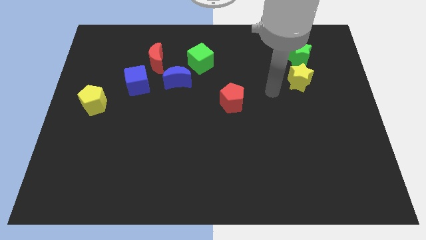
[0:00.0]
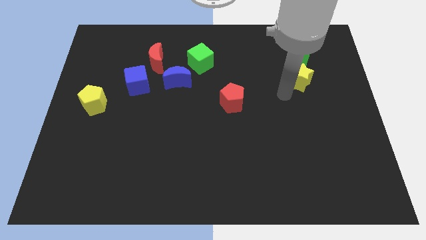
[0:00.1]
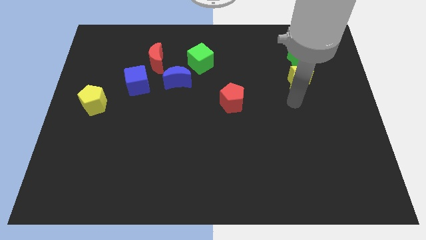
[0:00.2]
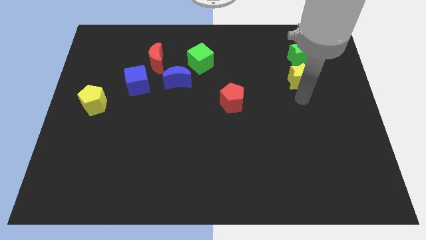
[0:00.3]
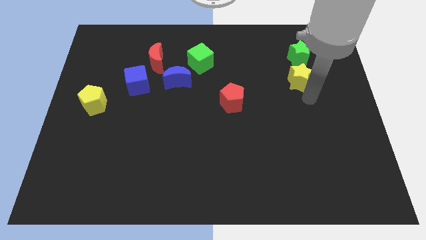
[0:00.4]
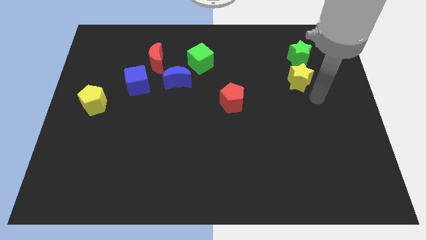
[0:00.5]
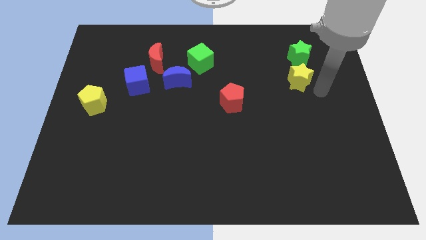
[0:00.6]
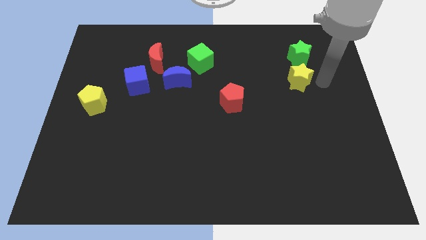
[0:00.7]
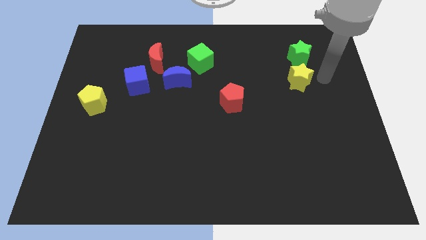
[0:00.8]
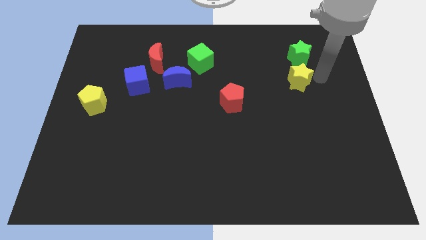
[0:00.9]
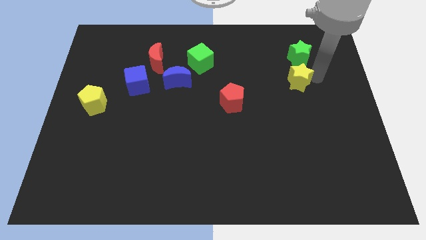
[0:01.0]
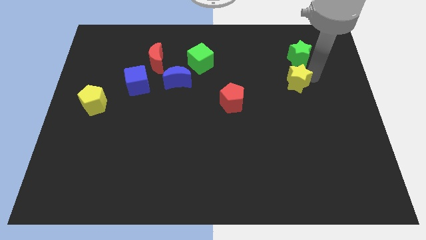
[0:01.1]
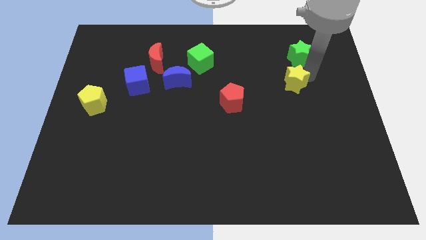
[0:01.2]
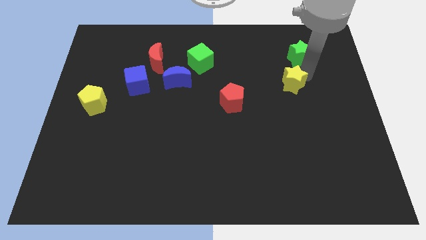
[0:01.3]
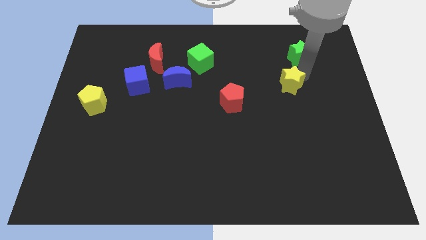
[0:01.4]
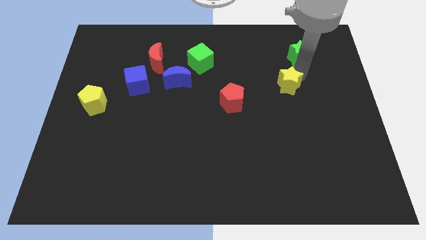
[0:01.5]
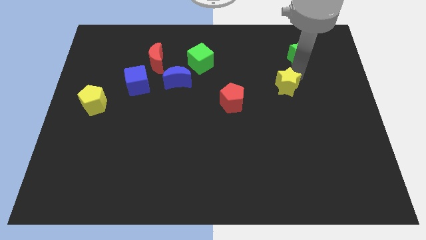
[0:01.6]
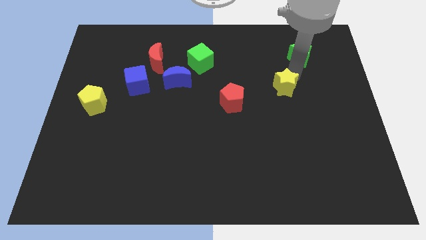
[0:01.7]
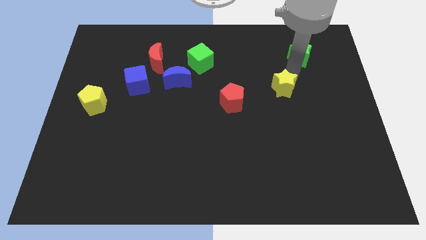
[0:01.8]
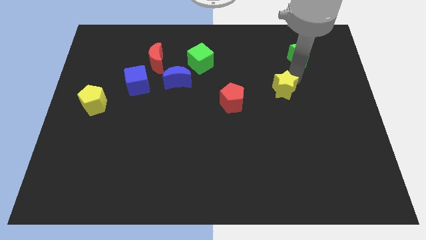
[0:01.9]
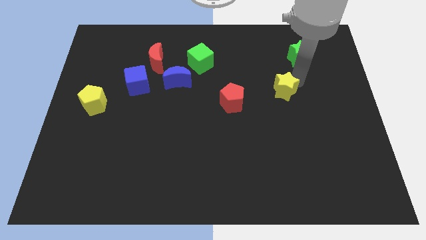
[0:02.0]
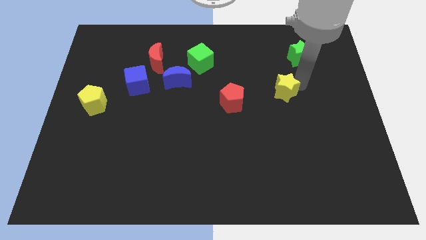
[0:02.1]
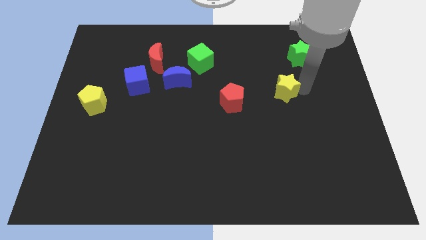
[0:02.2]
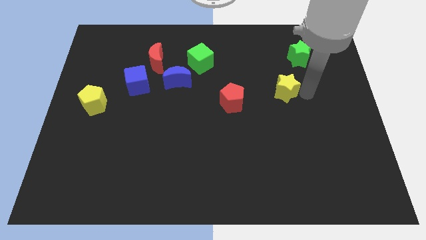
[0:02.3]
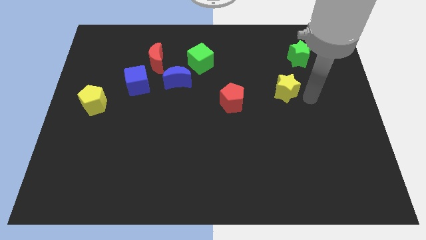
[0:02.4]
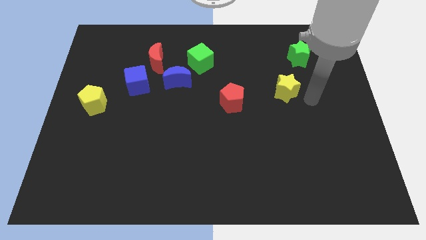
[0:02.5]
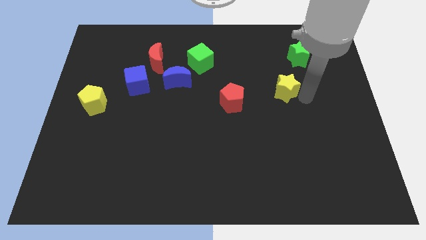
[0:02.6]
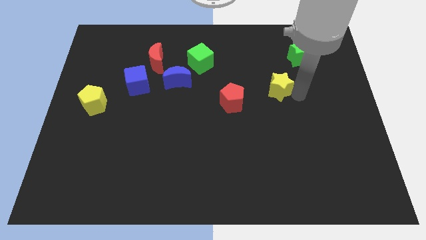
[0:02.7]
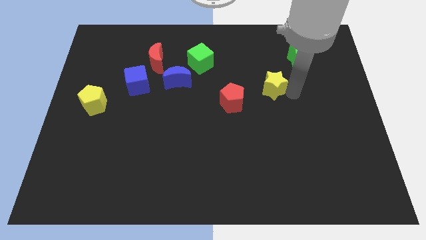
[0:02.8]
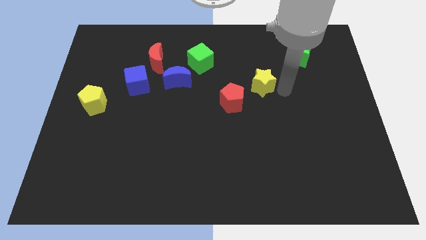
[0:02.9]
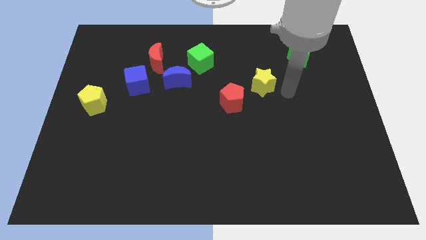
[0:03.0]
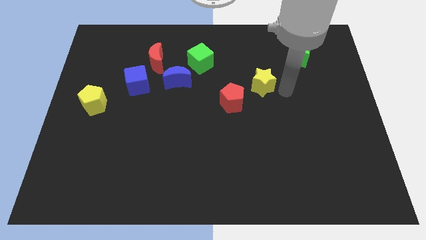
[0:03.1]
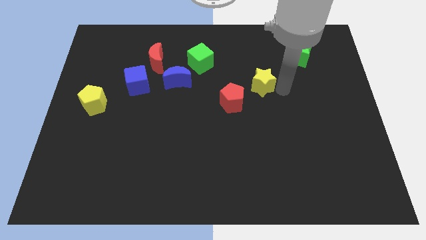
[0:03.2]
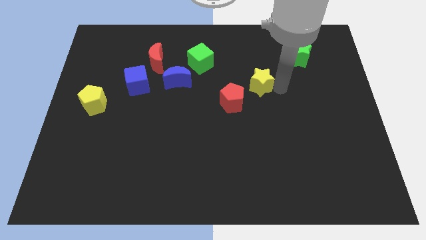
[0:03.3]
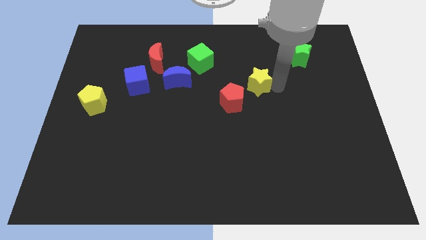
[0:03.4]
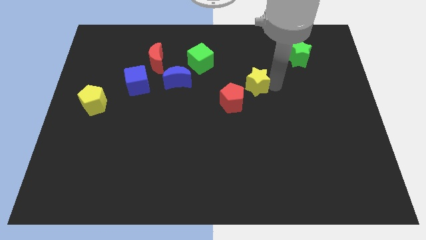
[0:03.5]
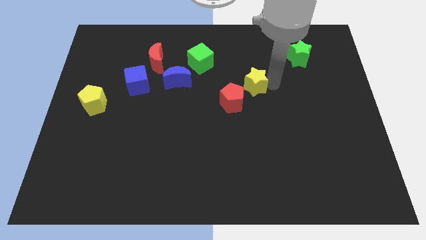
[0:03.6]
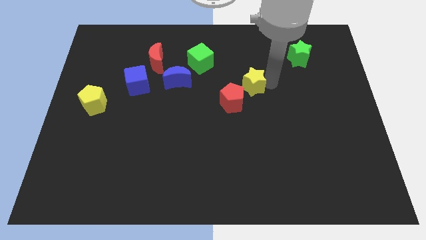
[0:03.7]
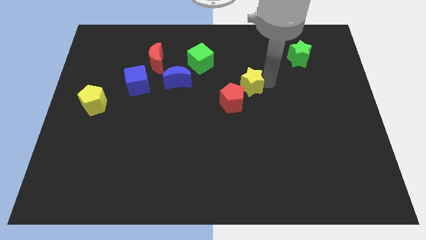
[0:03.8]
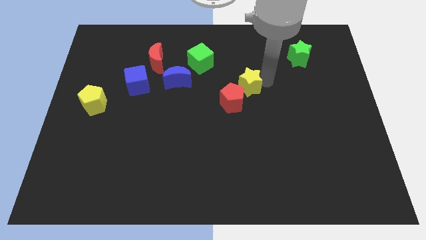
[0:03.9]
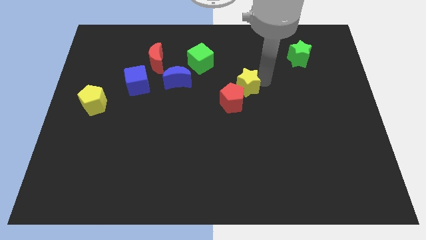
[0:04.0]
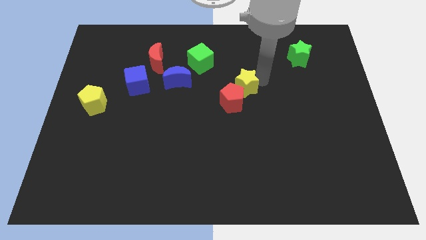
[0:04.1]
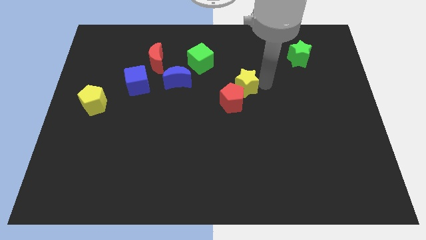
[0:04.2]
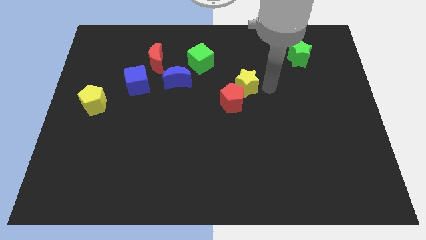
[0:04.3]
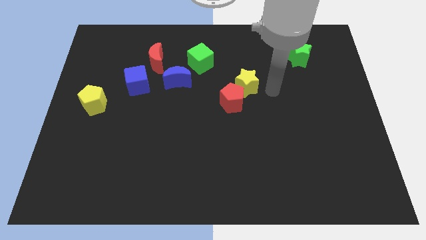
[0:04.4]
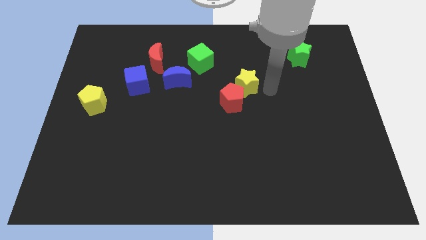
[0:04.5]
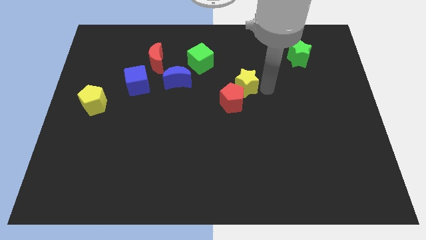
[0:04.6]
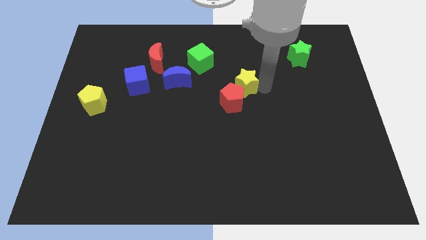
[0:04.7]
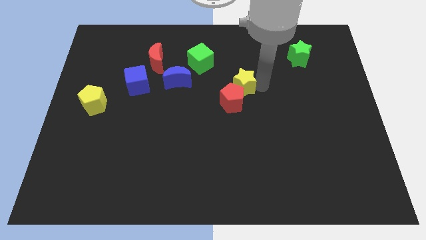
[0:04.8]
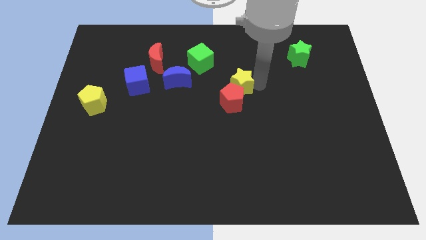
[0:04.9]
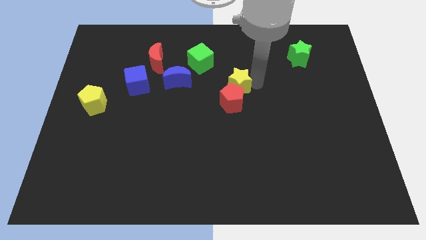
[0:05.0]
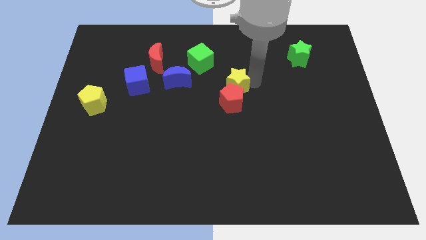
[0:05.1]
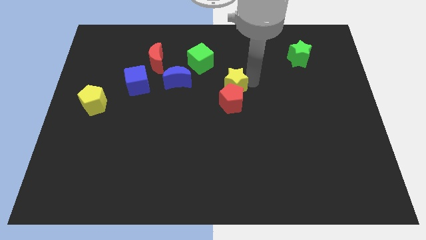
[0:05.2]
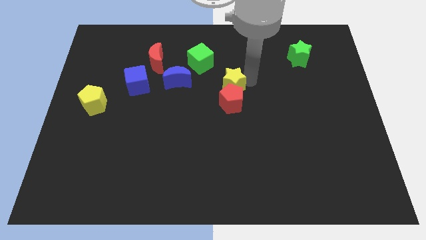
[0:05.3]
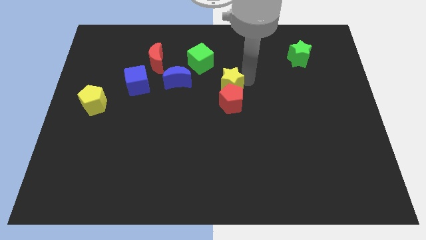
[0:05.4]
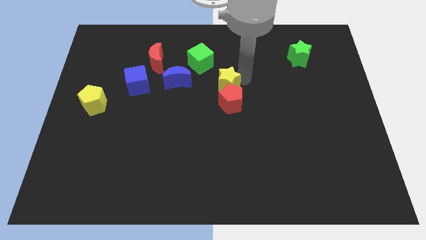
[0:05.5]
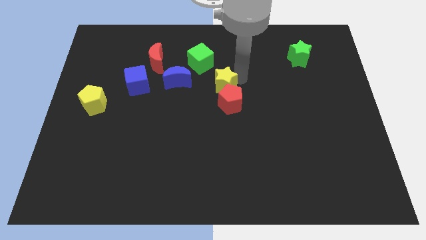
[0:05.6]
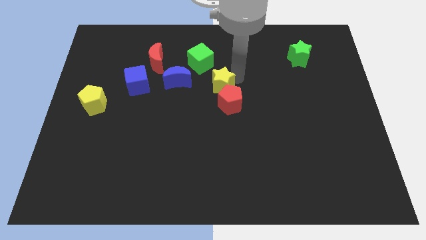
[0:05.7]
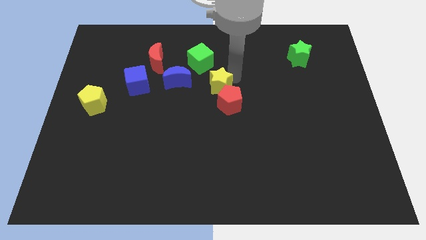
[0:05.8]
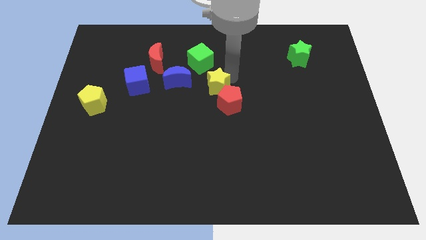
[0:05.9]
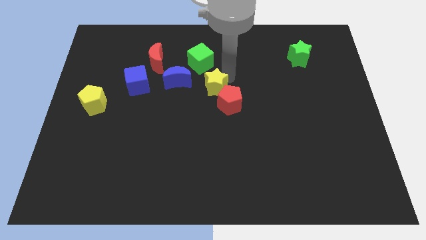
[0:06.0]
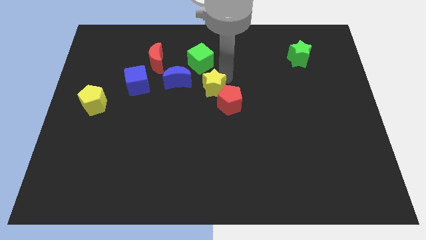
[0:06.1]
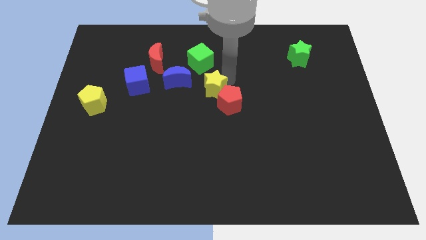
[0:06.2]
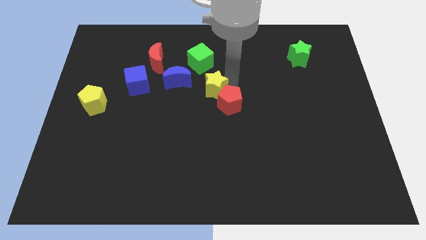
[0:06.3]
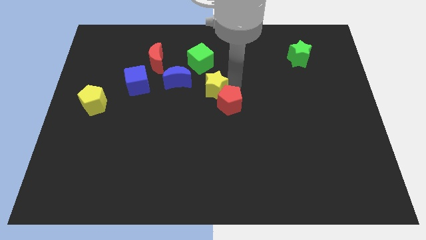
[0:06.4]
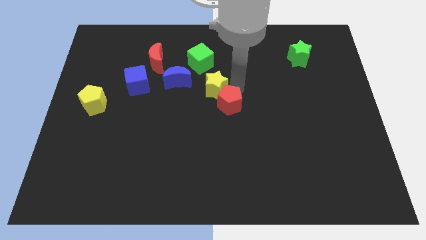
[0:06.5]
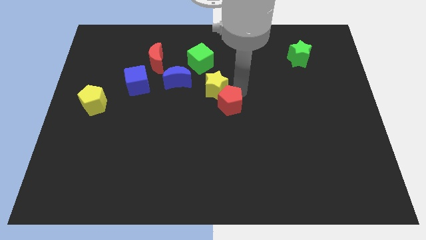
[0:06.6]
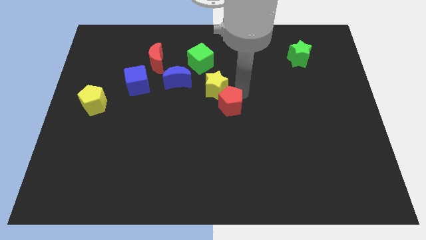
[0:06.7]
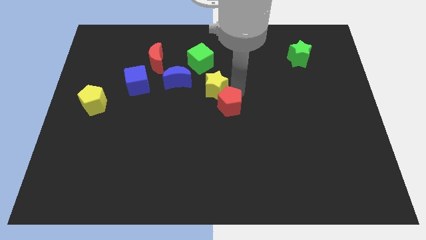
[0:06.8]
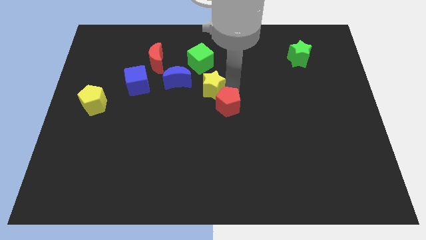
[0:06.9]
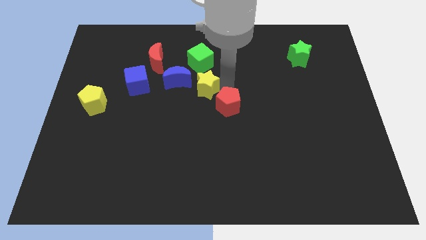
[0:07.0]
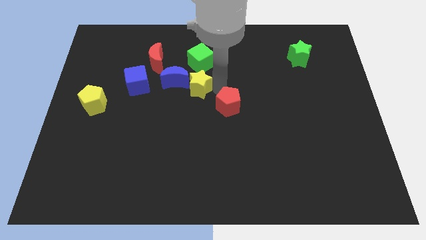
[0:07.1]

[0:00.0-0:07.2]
put the yellow star right of the blue cube
